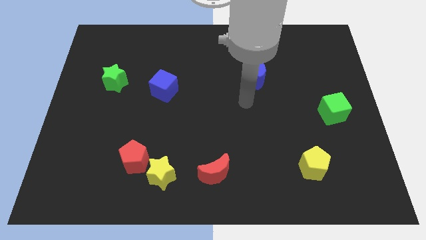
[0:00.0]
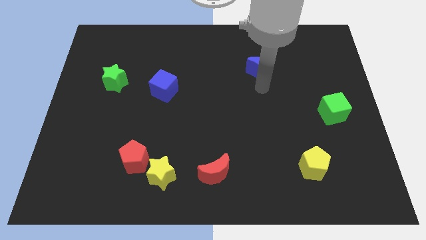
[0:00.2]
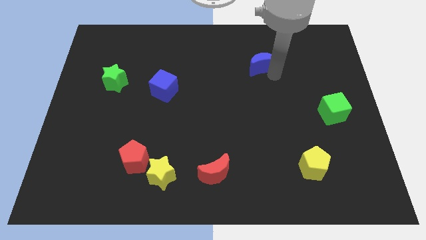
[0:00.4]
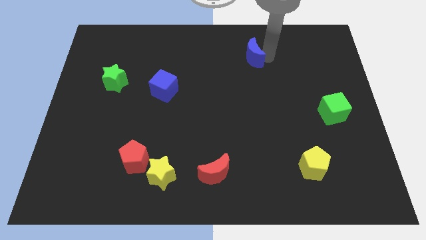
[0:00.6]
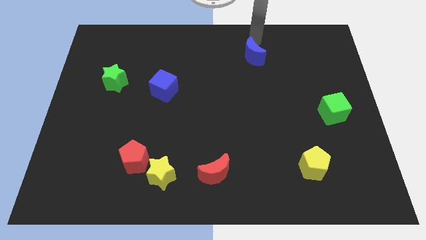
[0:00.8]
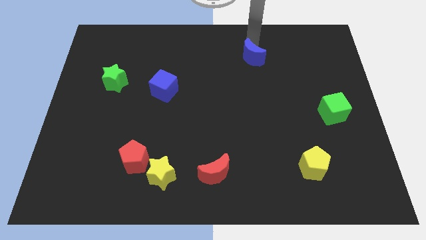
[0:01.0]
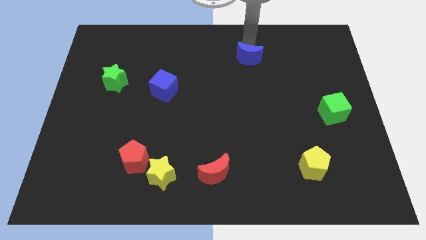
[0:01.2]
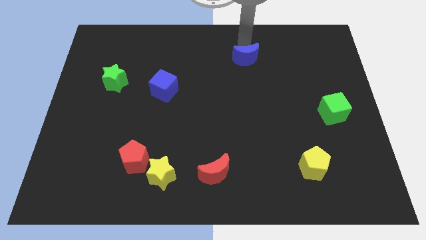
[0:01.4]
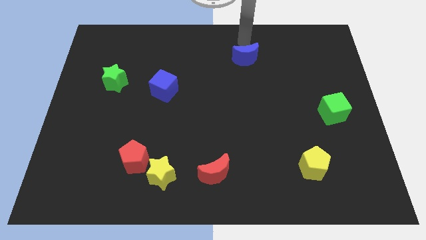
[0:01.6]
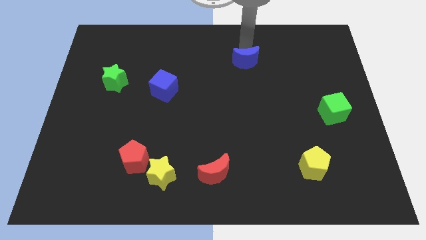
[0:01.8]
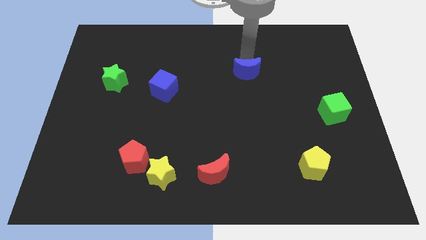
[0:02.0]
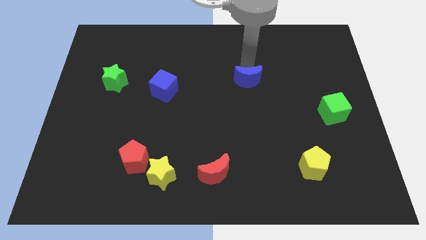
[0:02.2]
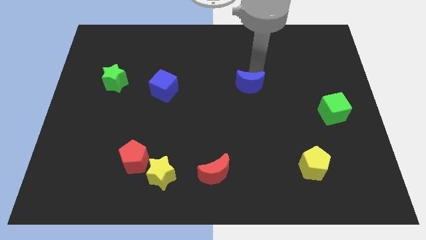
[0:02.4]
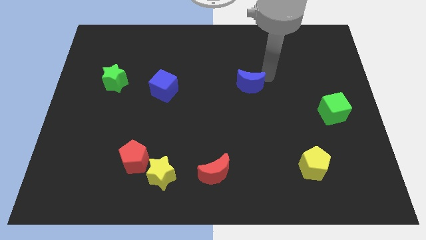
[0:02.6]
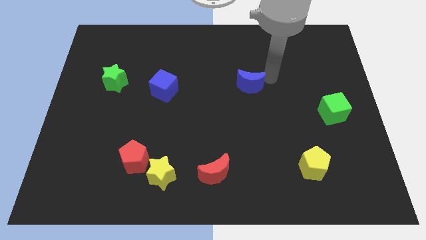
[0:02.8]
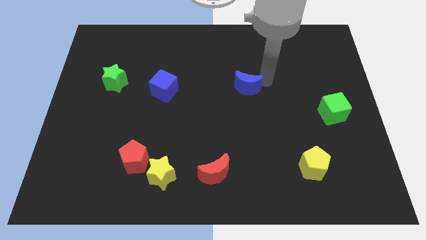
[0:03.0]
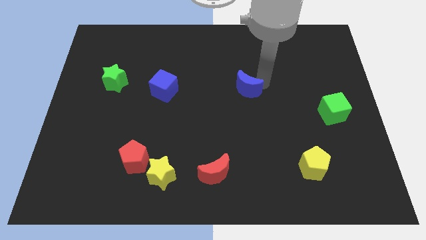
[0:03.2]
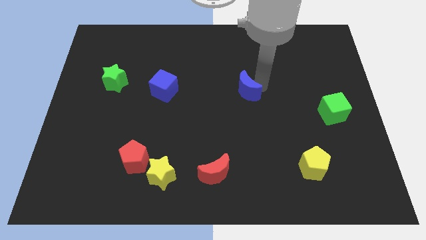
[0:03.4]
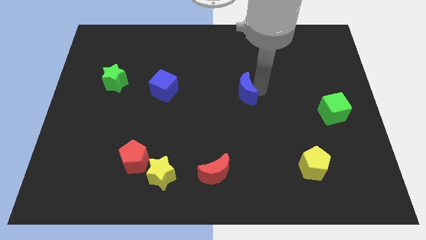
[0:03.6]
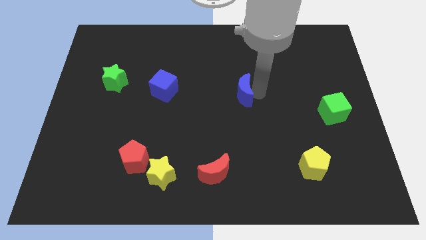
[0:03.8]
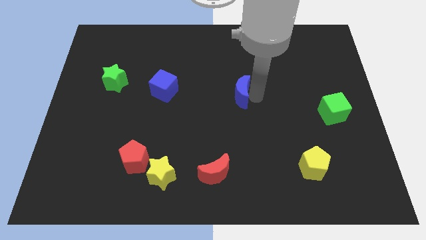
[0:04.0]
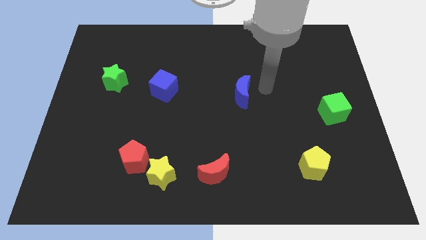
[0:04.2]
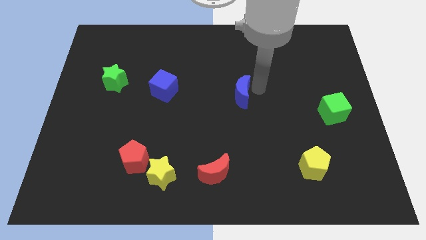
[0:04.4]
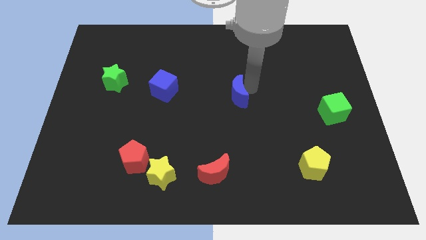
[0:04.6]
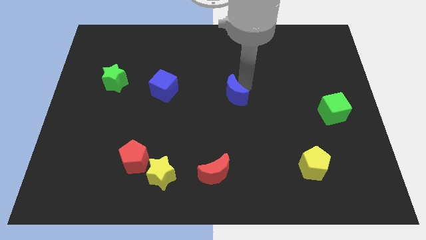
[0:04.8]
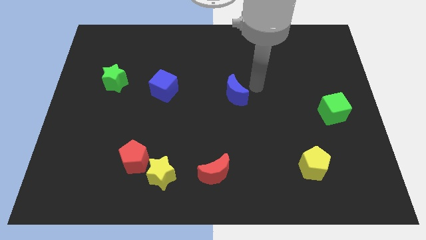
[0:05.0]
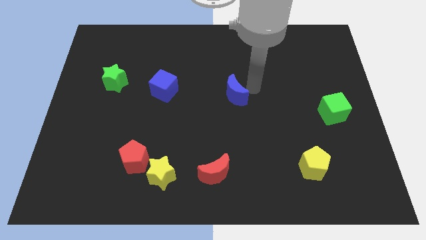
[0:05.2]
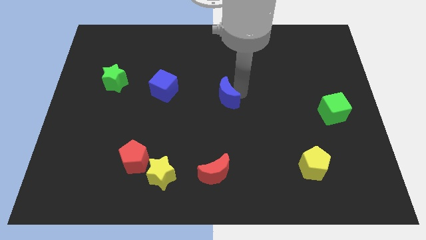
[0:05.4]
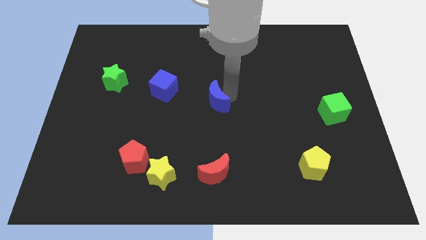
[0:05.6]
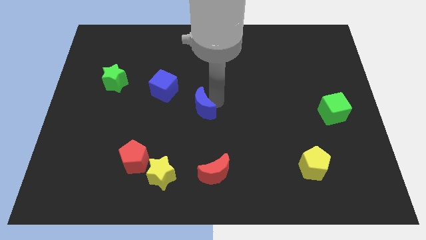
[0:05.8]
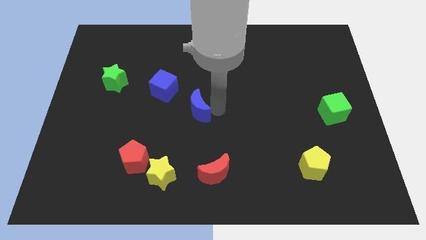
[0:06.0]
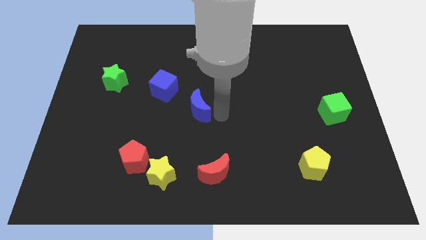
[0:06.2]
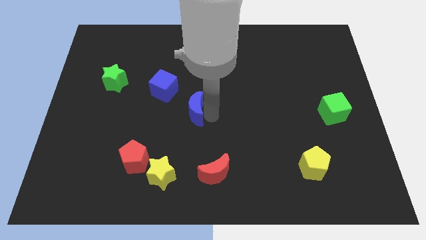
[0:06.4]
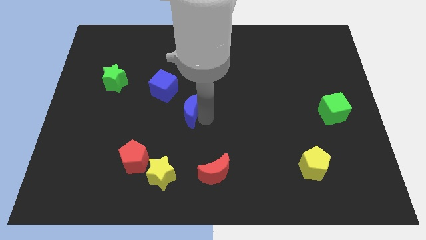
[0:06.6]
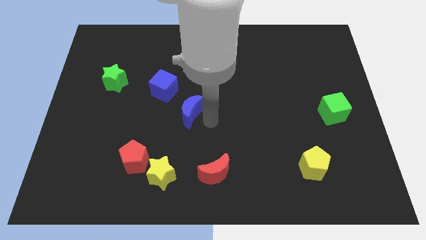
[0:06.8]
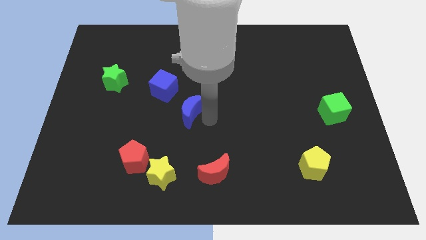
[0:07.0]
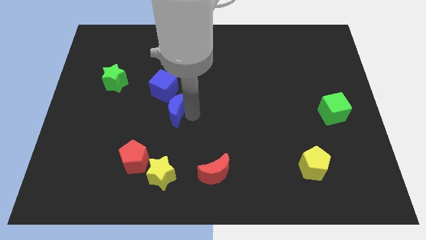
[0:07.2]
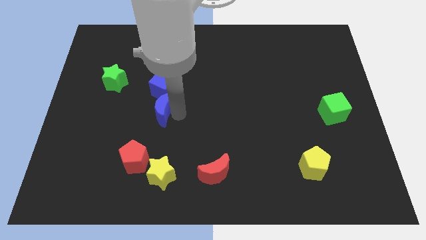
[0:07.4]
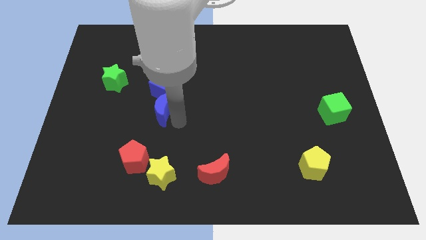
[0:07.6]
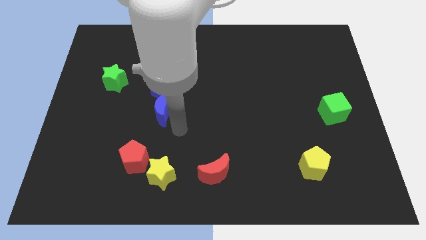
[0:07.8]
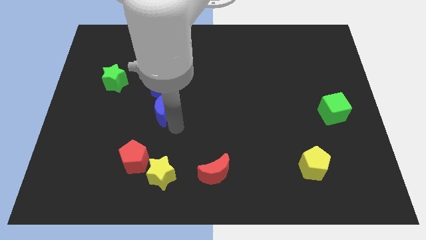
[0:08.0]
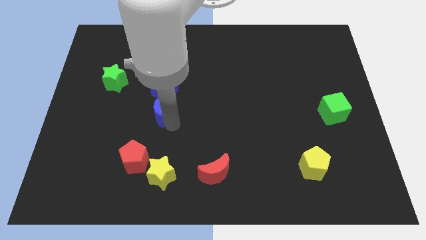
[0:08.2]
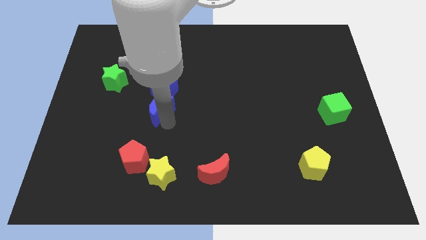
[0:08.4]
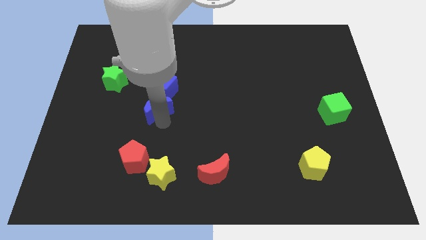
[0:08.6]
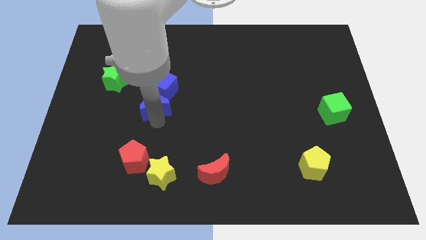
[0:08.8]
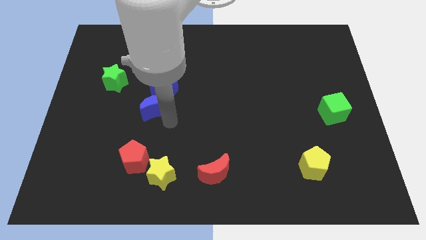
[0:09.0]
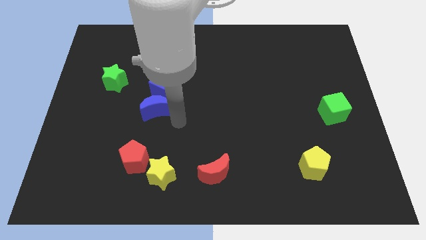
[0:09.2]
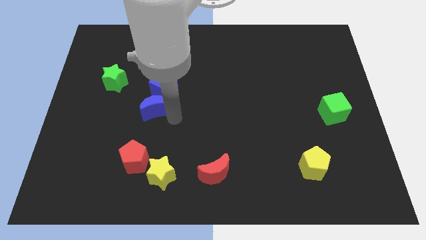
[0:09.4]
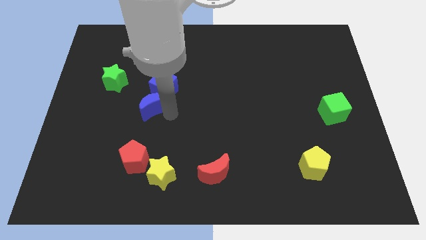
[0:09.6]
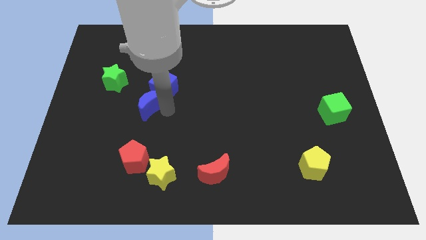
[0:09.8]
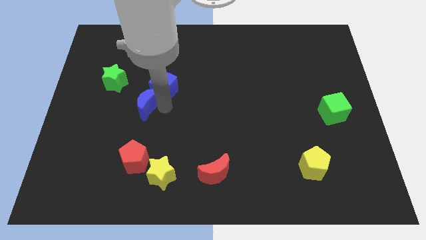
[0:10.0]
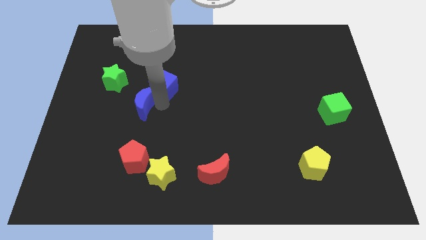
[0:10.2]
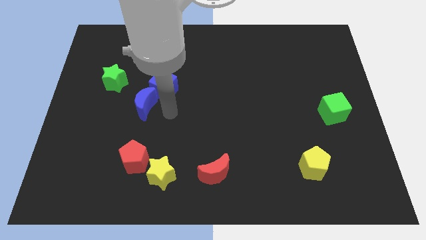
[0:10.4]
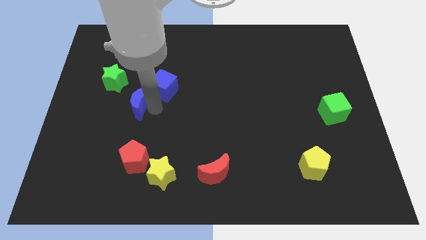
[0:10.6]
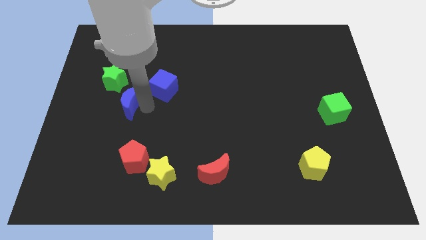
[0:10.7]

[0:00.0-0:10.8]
slide the blue moon just left of the blue cube

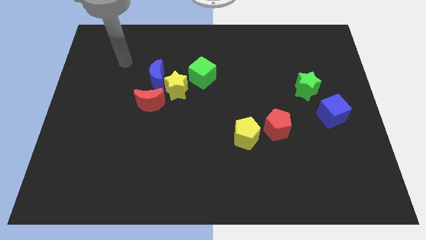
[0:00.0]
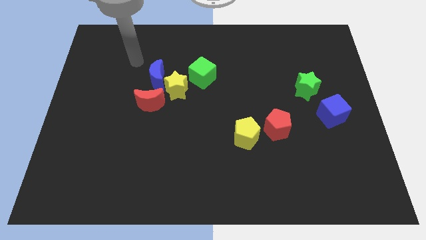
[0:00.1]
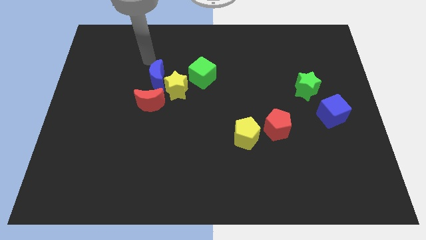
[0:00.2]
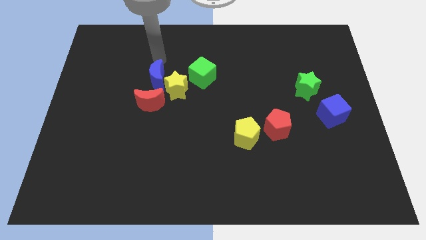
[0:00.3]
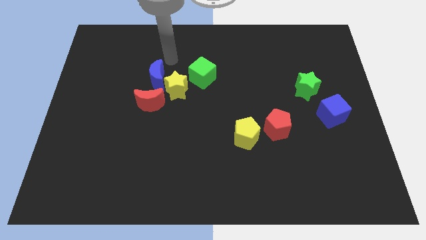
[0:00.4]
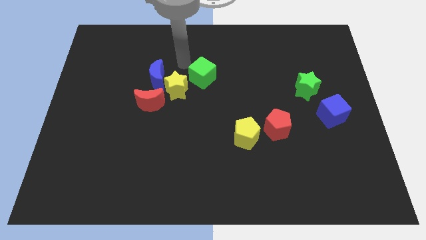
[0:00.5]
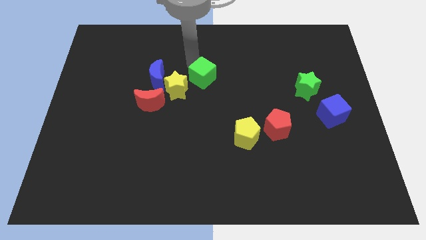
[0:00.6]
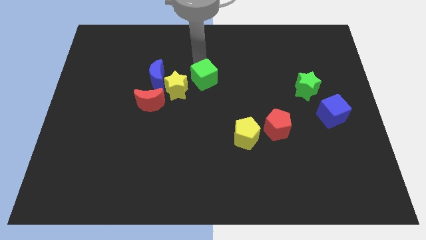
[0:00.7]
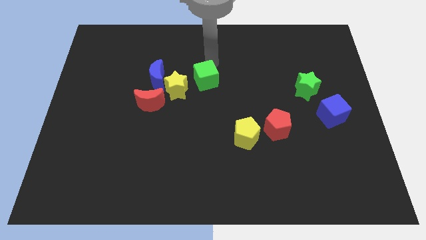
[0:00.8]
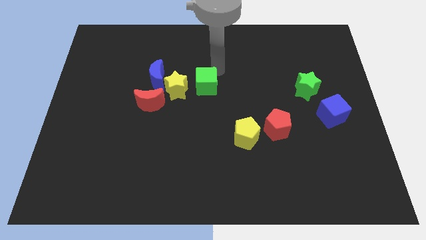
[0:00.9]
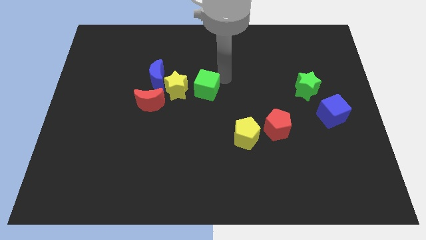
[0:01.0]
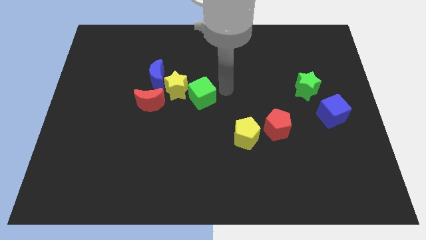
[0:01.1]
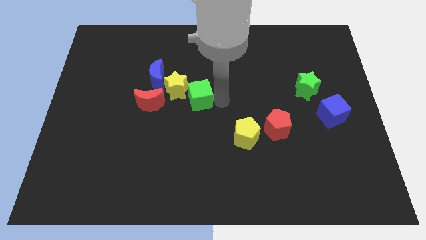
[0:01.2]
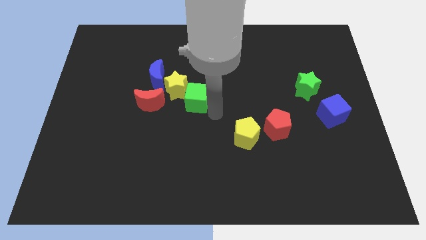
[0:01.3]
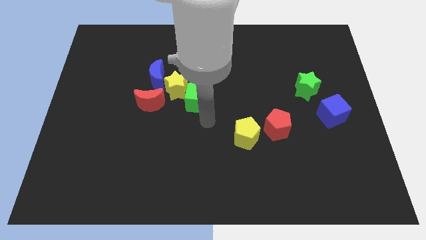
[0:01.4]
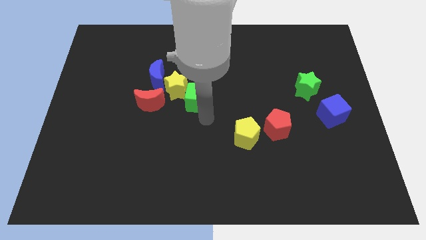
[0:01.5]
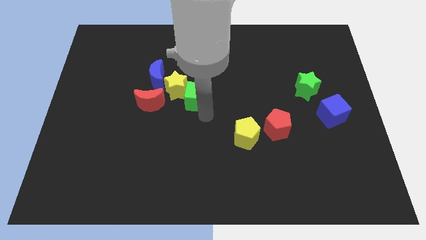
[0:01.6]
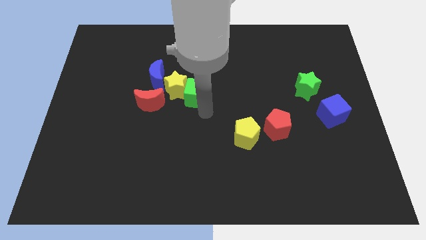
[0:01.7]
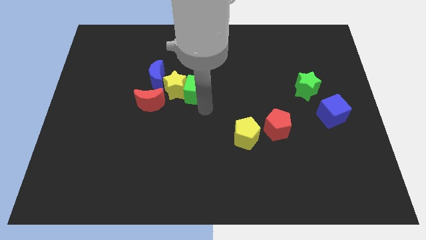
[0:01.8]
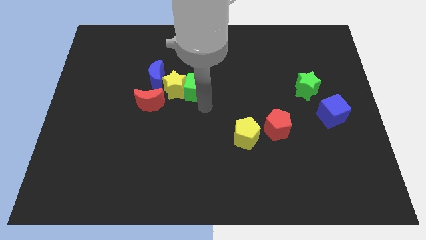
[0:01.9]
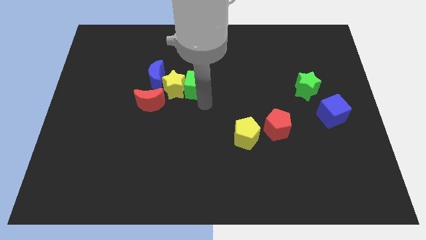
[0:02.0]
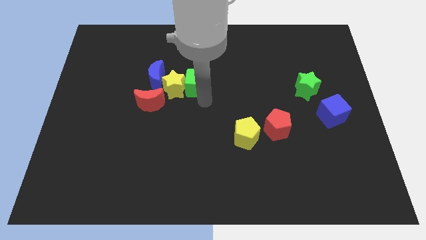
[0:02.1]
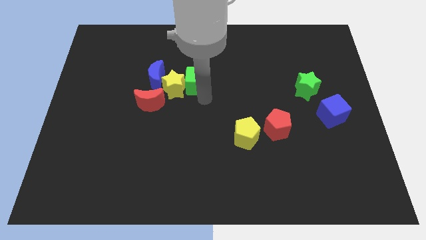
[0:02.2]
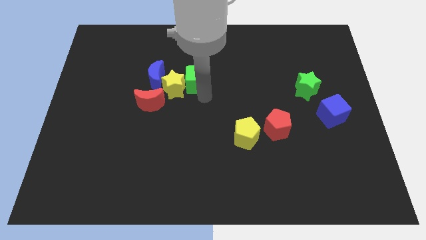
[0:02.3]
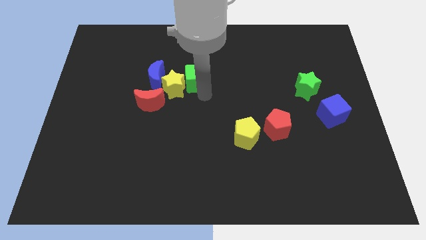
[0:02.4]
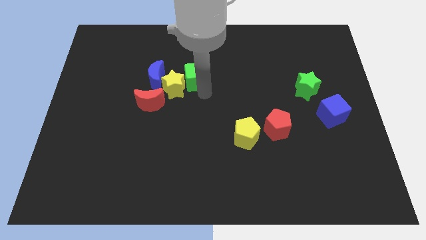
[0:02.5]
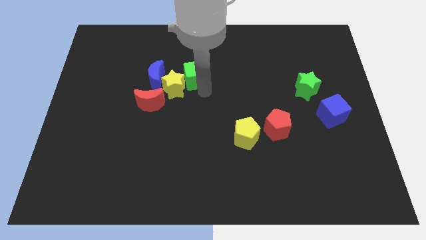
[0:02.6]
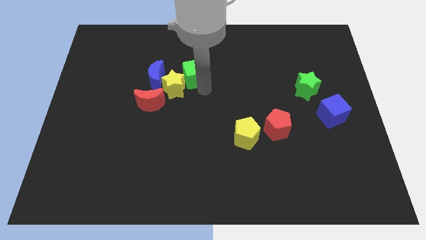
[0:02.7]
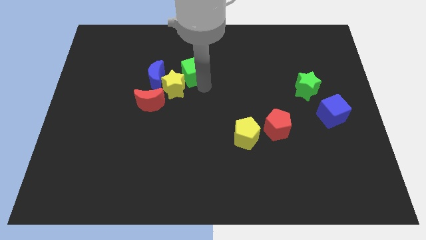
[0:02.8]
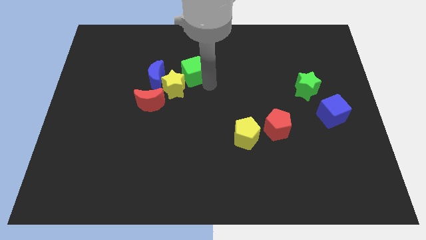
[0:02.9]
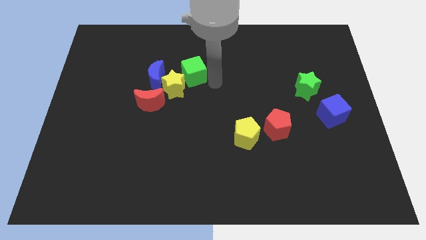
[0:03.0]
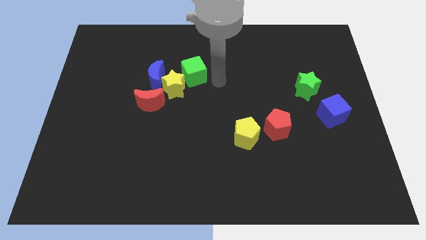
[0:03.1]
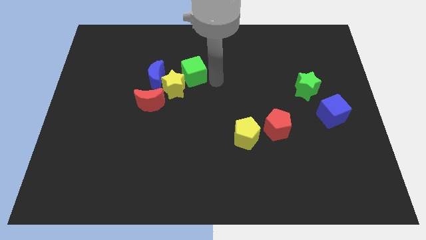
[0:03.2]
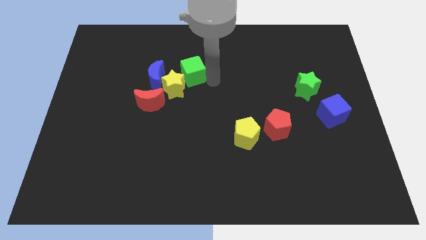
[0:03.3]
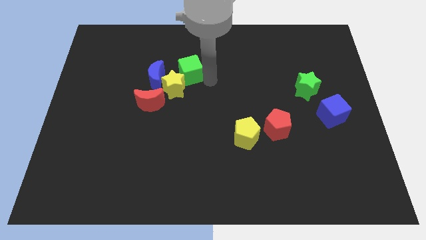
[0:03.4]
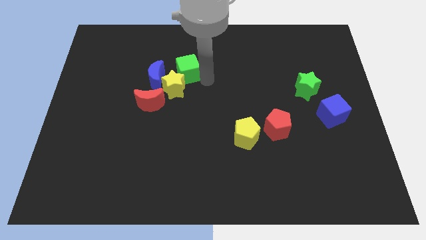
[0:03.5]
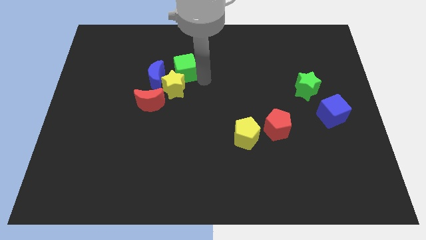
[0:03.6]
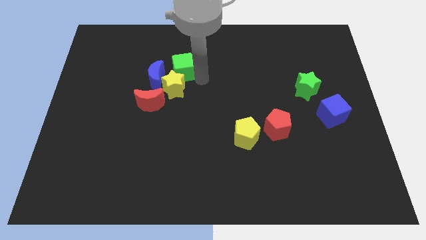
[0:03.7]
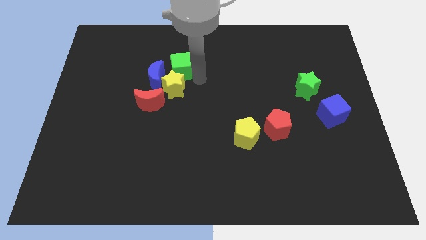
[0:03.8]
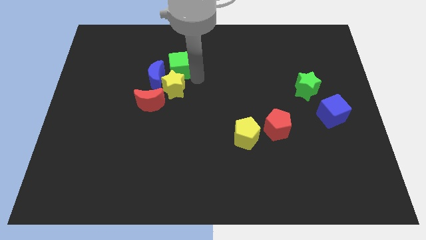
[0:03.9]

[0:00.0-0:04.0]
push the green cube diagonally up and to the left of the yellow star
